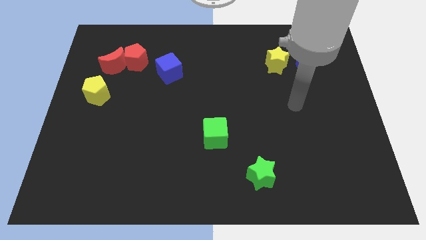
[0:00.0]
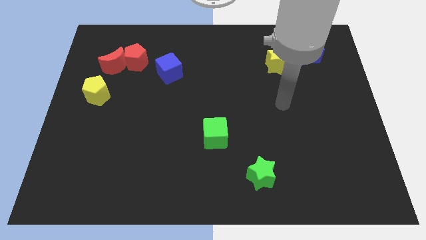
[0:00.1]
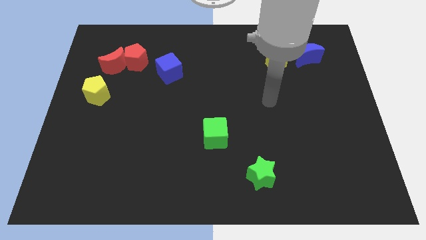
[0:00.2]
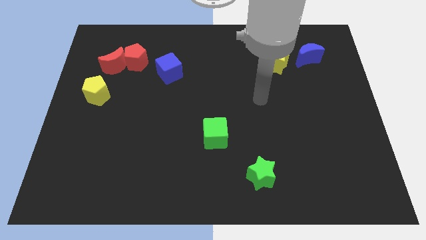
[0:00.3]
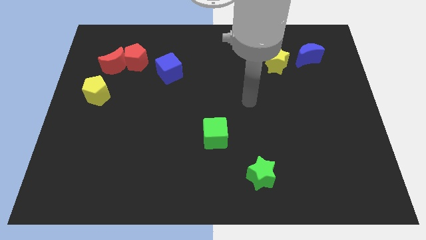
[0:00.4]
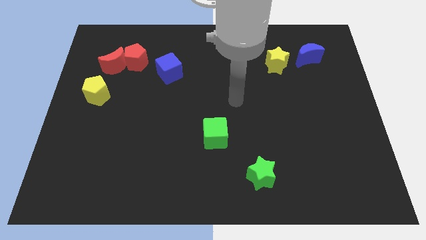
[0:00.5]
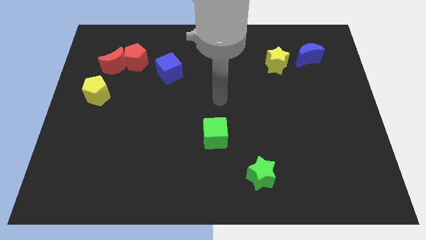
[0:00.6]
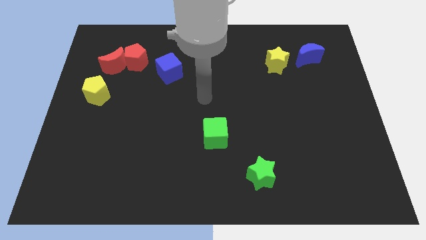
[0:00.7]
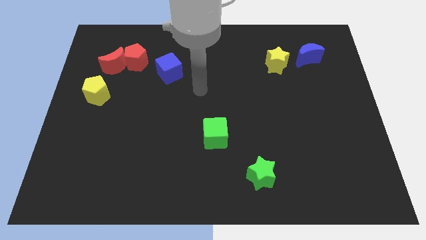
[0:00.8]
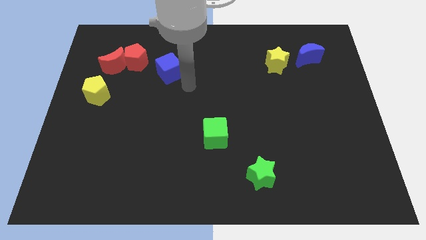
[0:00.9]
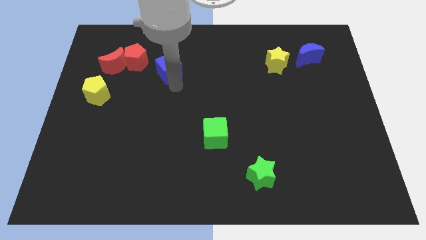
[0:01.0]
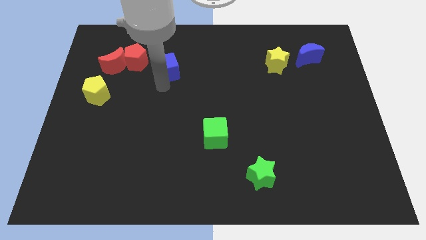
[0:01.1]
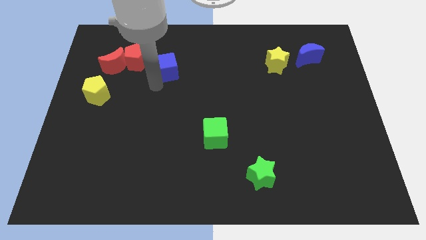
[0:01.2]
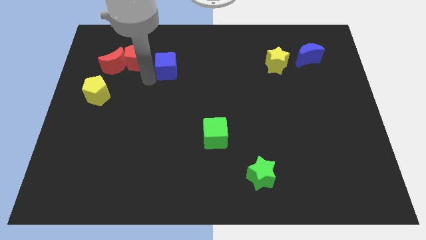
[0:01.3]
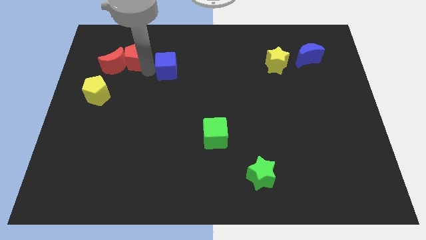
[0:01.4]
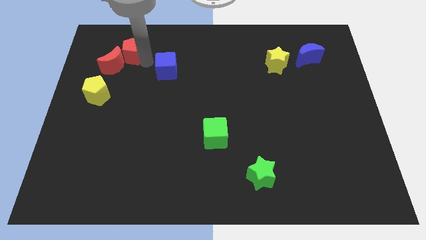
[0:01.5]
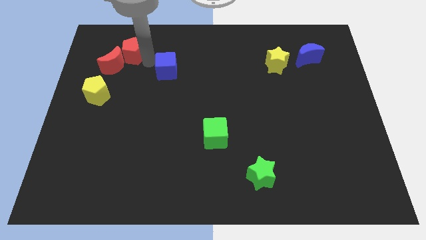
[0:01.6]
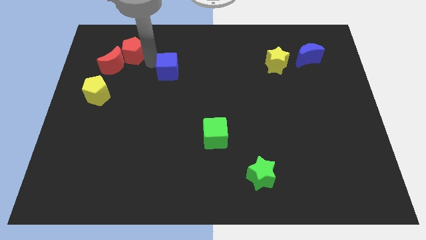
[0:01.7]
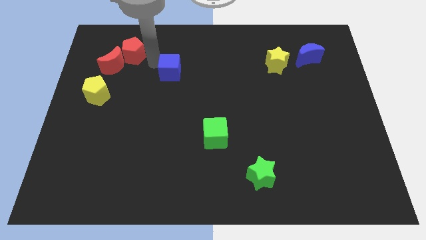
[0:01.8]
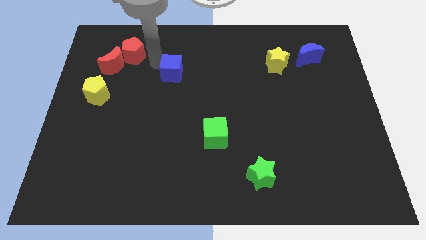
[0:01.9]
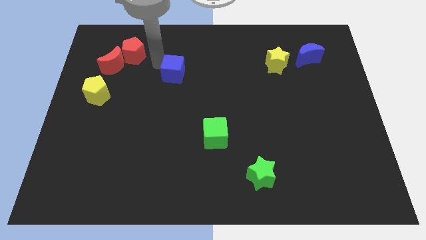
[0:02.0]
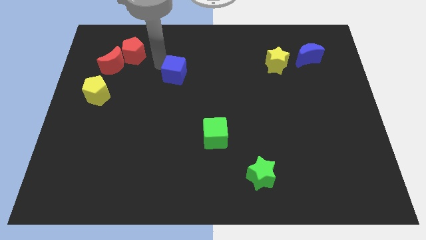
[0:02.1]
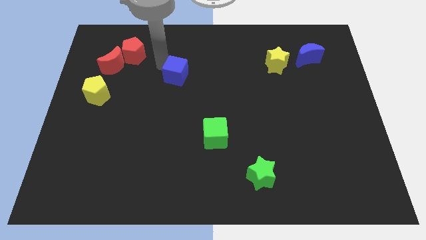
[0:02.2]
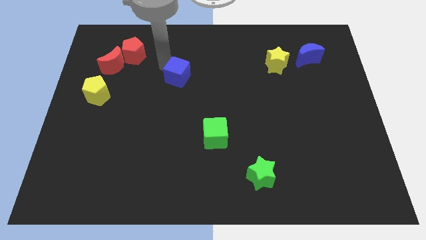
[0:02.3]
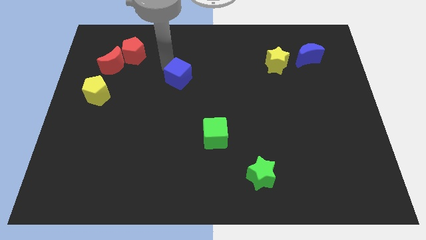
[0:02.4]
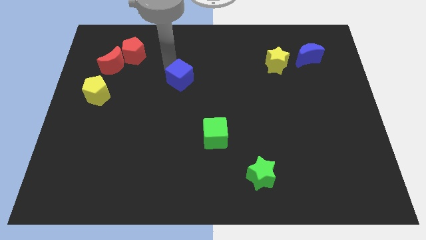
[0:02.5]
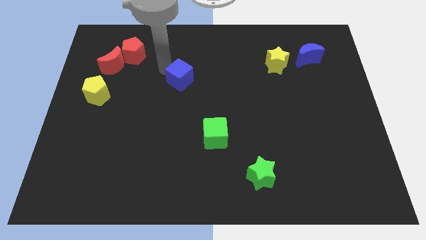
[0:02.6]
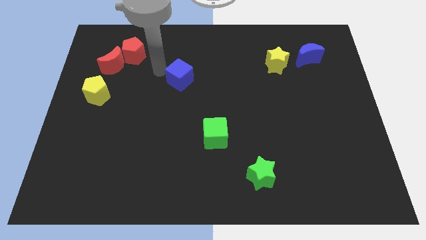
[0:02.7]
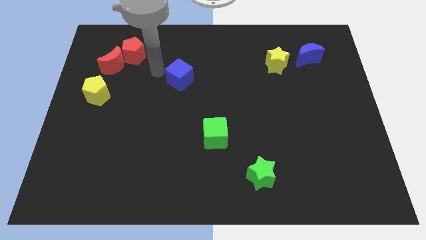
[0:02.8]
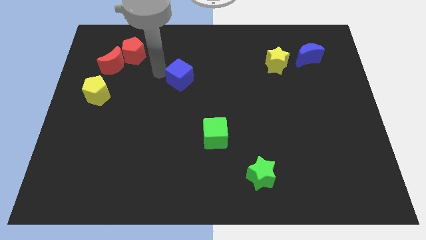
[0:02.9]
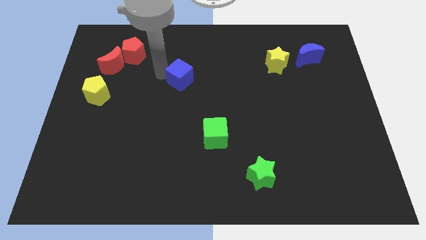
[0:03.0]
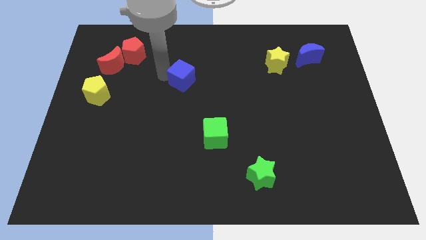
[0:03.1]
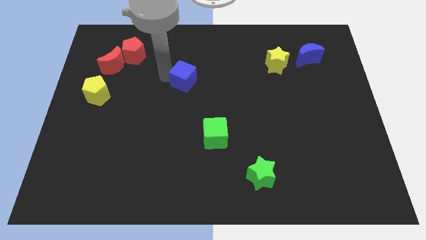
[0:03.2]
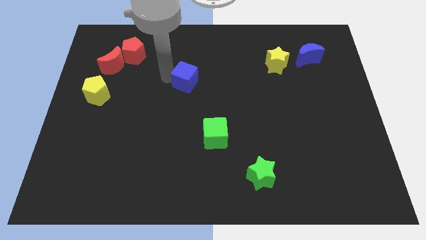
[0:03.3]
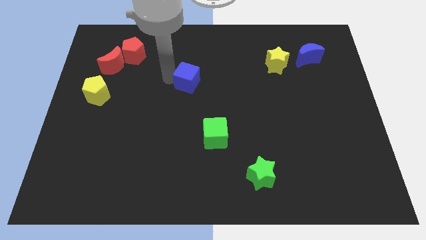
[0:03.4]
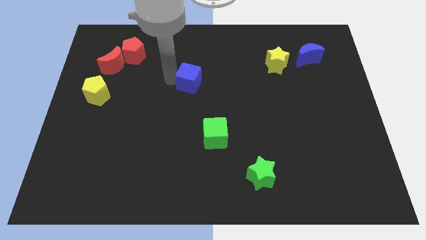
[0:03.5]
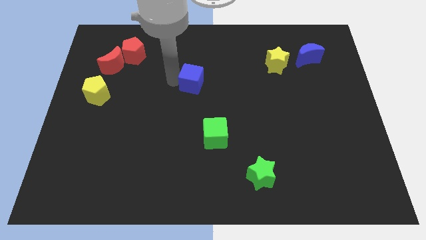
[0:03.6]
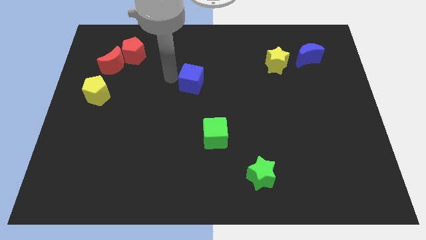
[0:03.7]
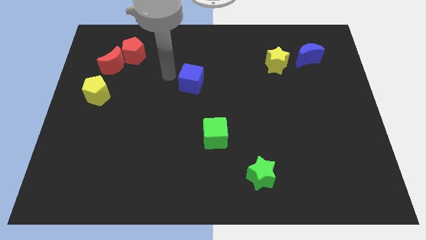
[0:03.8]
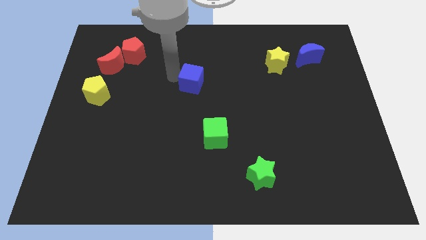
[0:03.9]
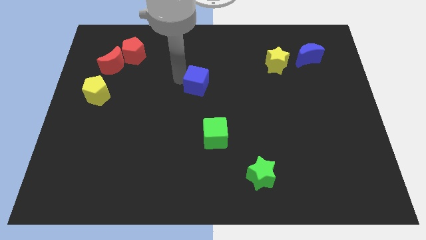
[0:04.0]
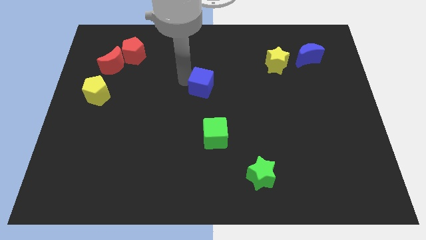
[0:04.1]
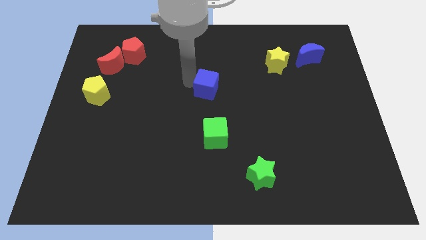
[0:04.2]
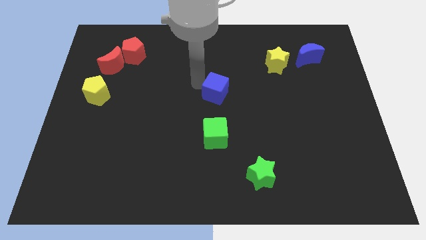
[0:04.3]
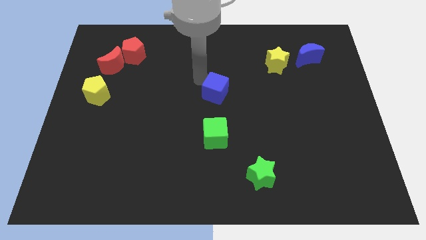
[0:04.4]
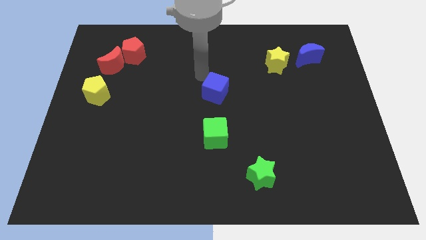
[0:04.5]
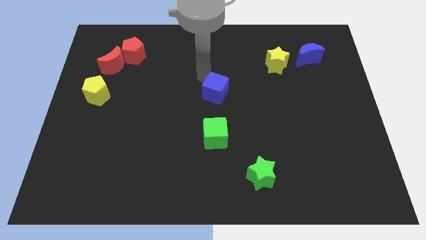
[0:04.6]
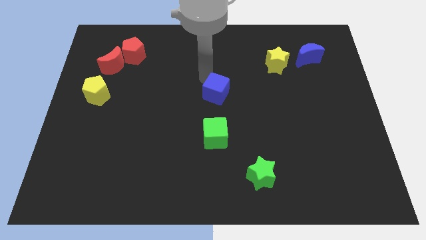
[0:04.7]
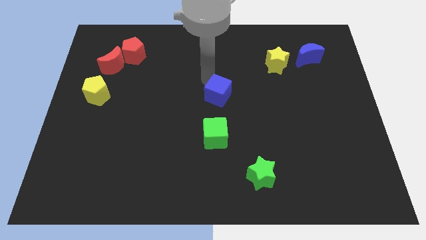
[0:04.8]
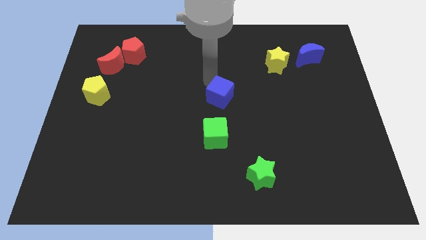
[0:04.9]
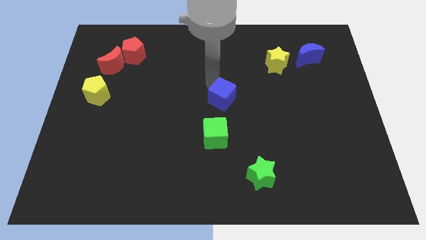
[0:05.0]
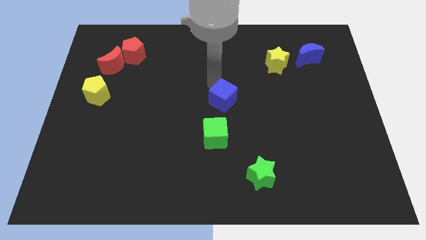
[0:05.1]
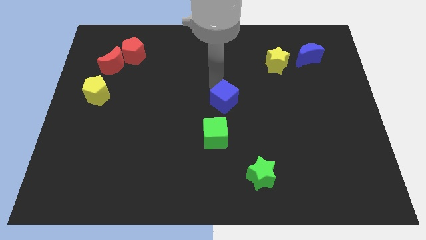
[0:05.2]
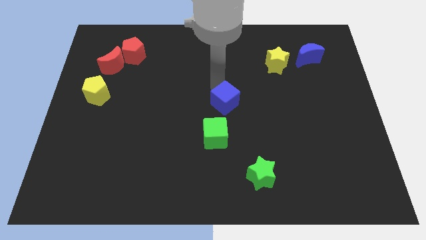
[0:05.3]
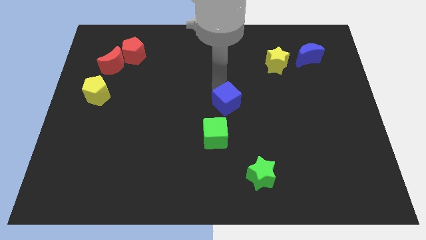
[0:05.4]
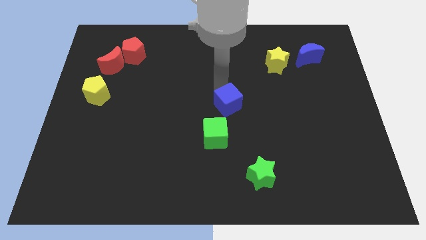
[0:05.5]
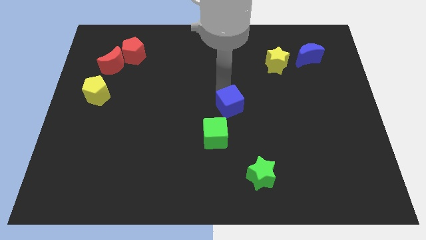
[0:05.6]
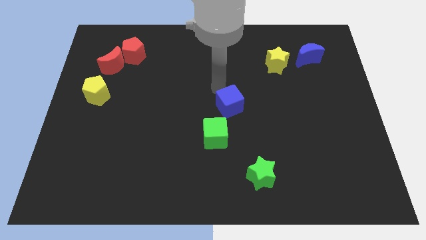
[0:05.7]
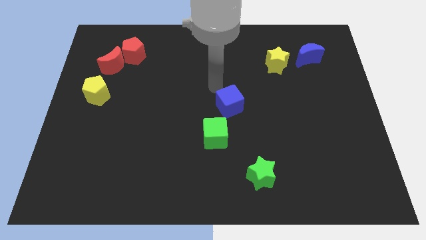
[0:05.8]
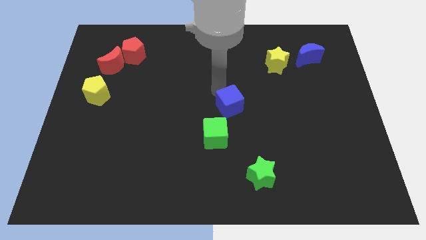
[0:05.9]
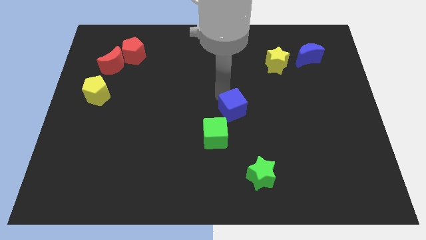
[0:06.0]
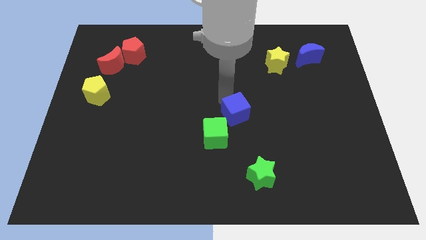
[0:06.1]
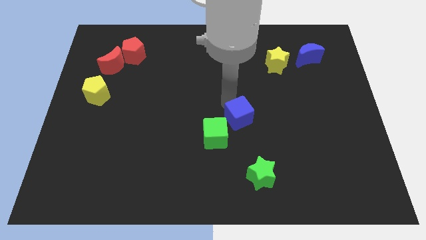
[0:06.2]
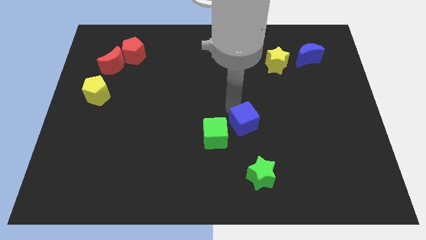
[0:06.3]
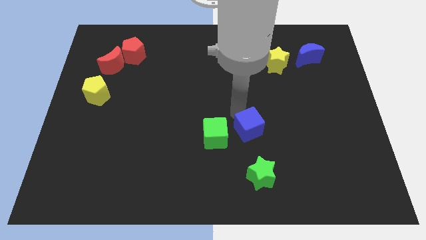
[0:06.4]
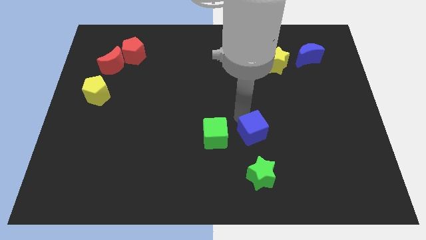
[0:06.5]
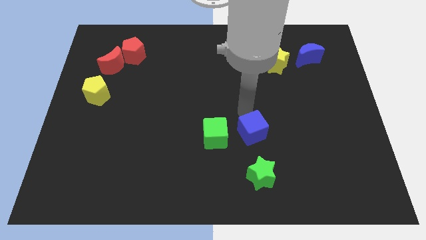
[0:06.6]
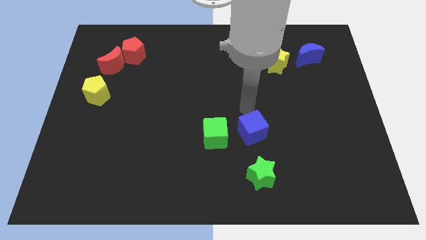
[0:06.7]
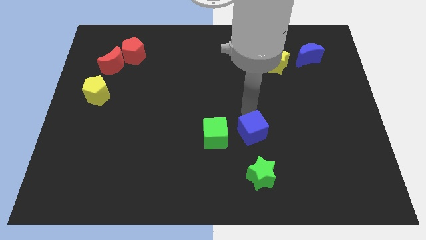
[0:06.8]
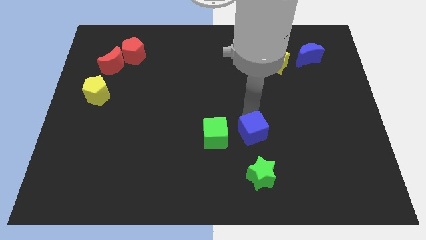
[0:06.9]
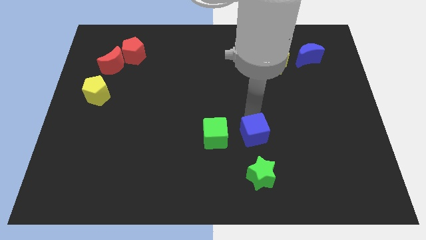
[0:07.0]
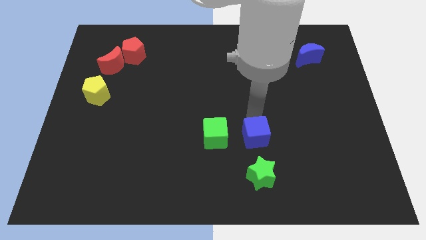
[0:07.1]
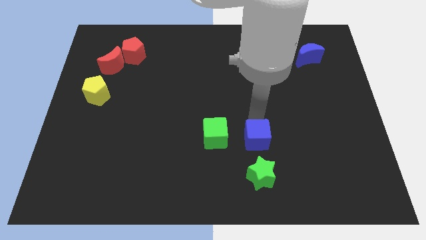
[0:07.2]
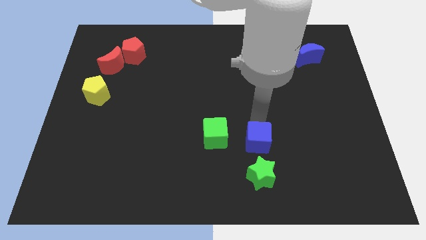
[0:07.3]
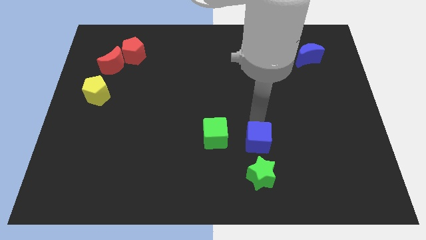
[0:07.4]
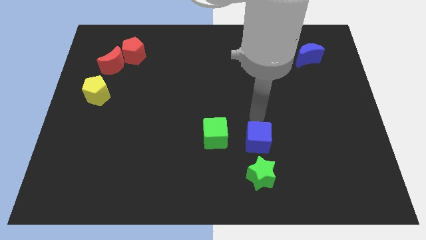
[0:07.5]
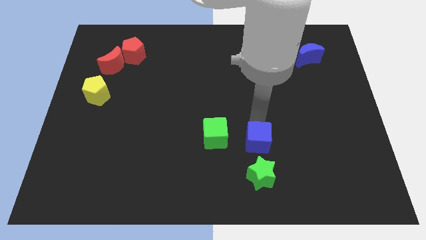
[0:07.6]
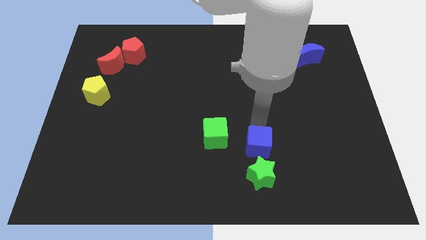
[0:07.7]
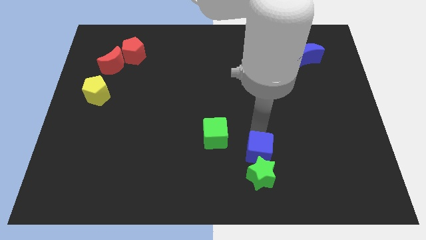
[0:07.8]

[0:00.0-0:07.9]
move the blue cube to the green star
